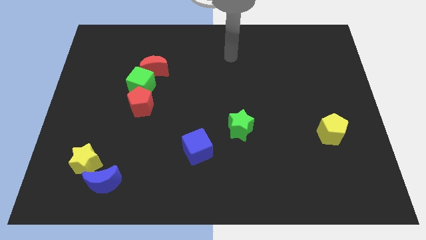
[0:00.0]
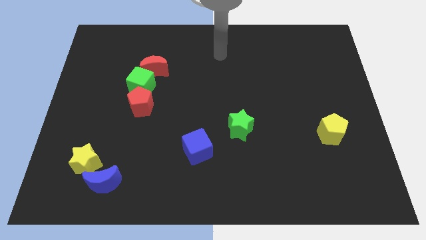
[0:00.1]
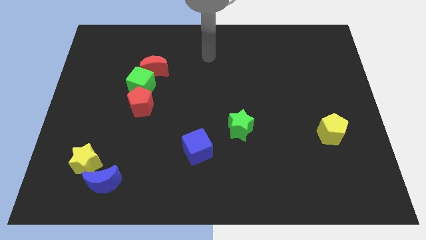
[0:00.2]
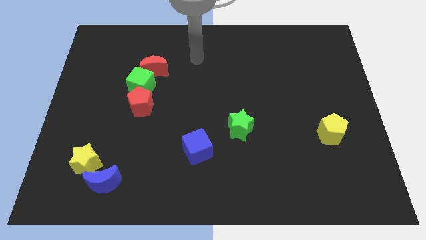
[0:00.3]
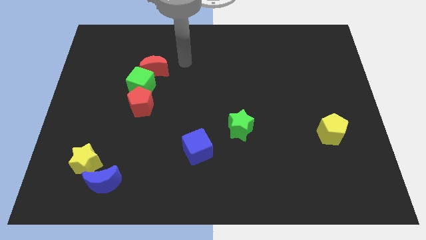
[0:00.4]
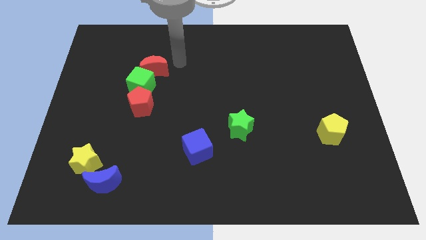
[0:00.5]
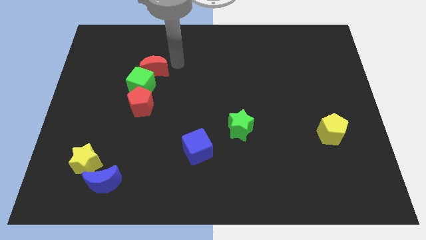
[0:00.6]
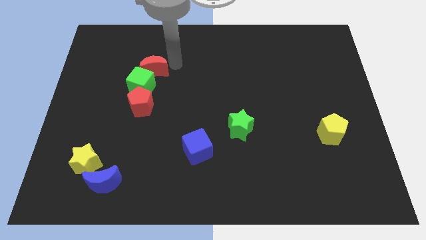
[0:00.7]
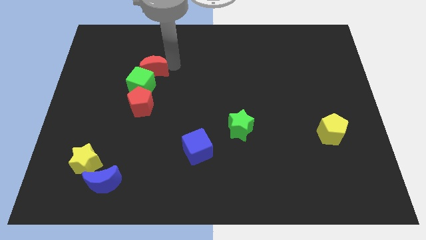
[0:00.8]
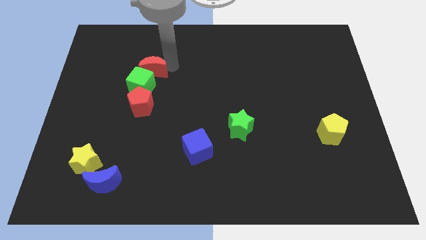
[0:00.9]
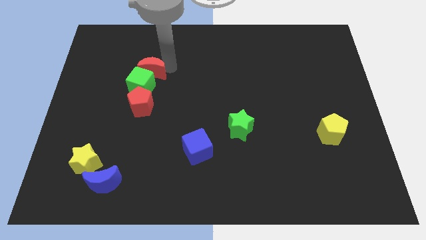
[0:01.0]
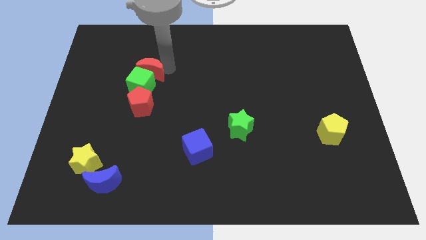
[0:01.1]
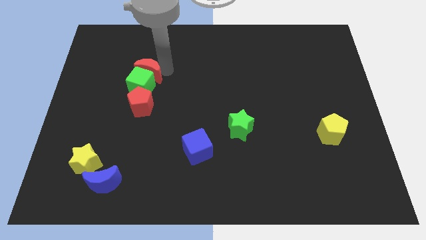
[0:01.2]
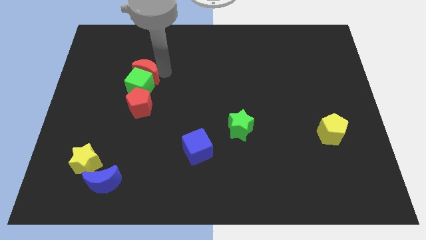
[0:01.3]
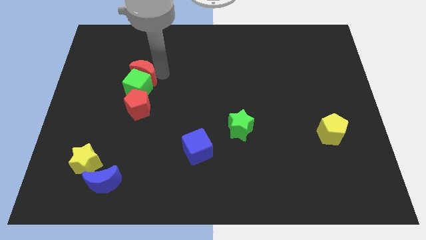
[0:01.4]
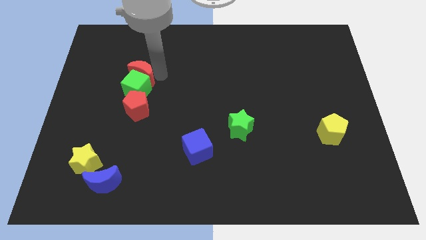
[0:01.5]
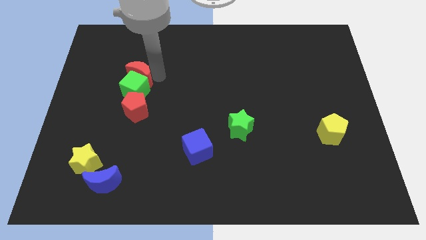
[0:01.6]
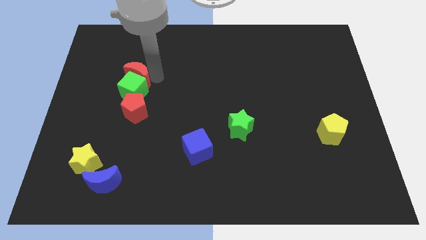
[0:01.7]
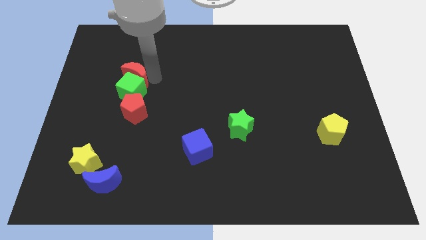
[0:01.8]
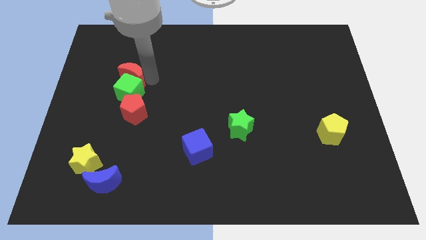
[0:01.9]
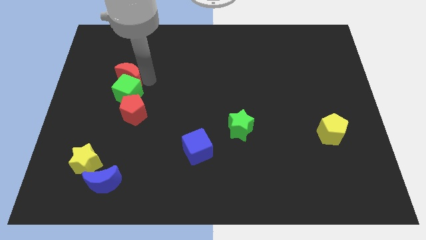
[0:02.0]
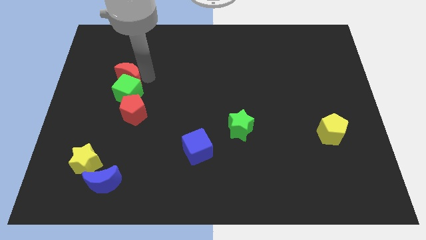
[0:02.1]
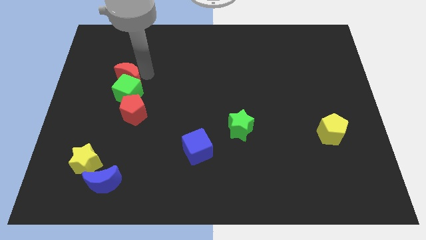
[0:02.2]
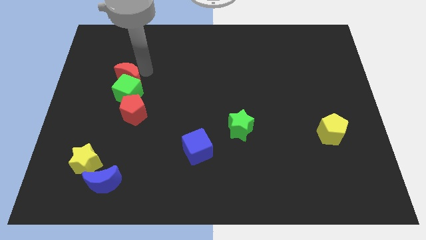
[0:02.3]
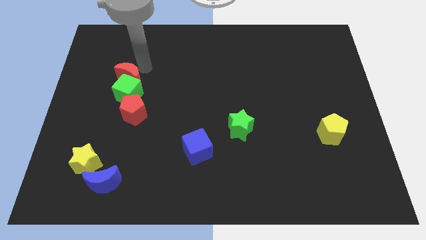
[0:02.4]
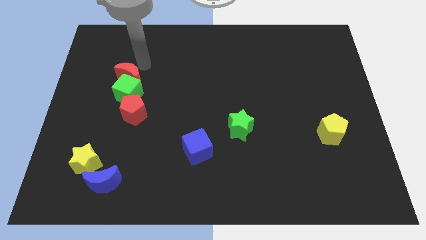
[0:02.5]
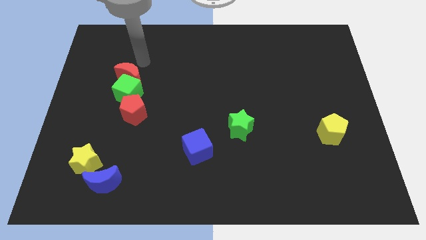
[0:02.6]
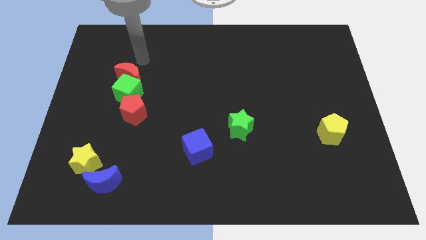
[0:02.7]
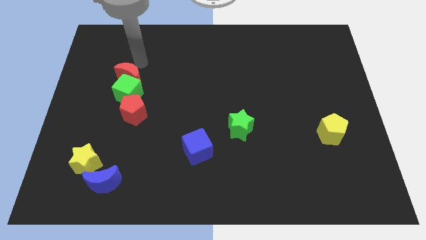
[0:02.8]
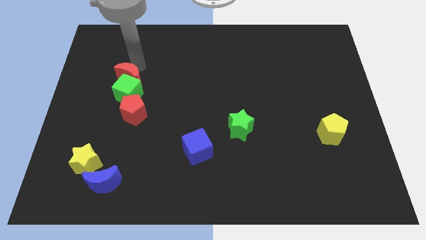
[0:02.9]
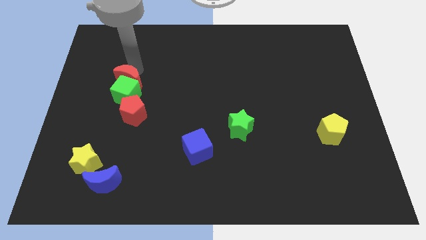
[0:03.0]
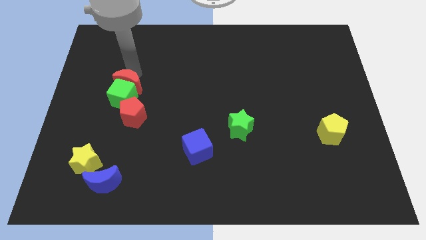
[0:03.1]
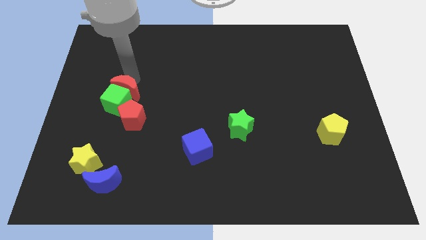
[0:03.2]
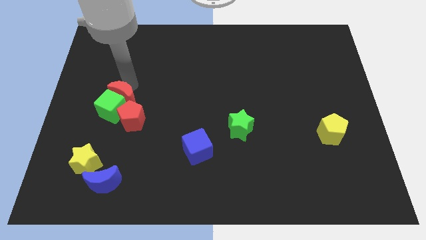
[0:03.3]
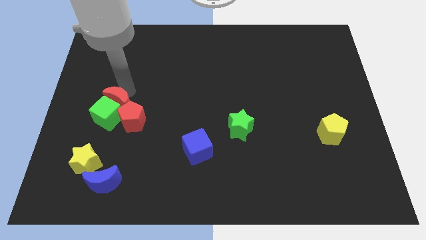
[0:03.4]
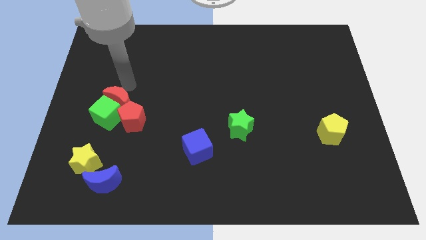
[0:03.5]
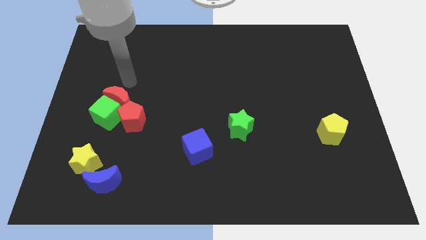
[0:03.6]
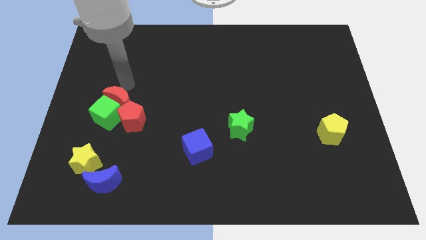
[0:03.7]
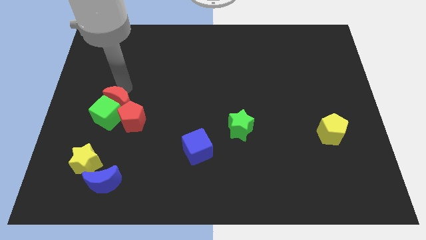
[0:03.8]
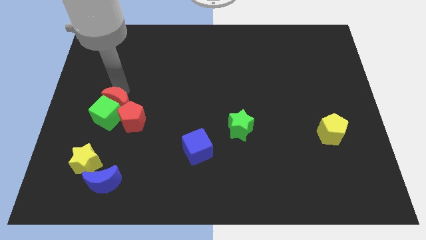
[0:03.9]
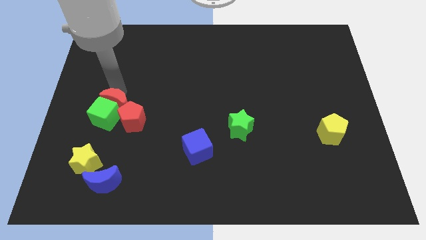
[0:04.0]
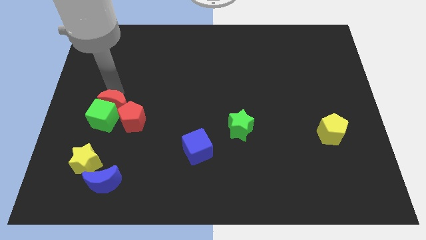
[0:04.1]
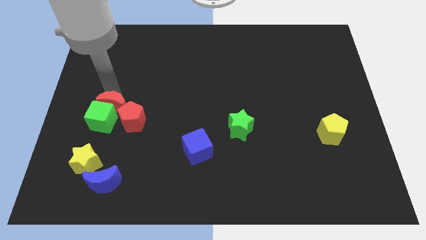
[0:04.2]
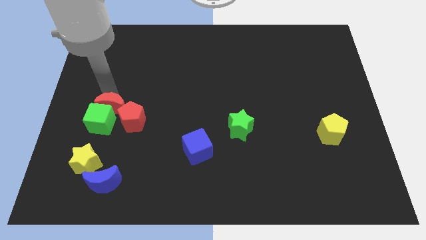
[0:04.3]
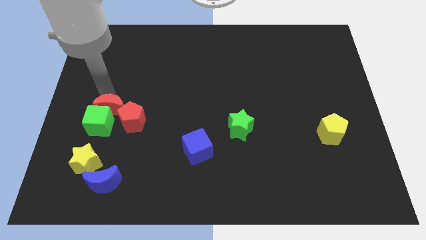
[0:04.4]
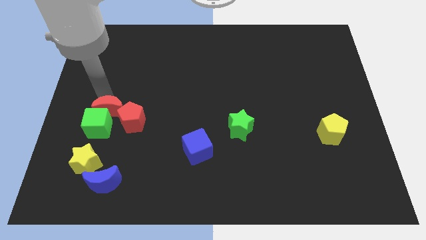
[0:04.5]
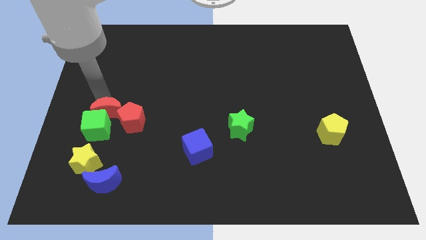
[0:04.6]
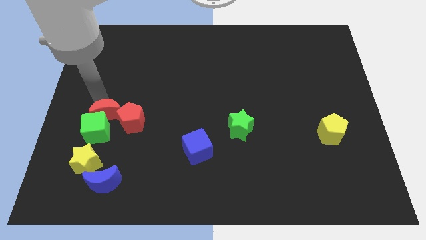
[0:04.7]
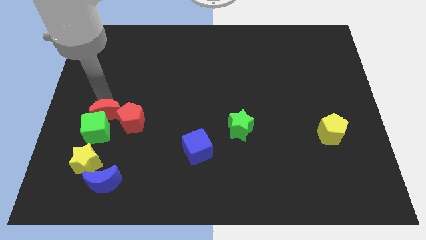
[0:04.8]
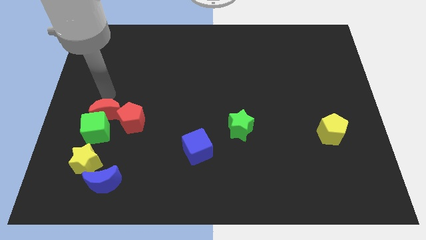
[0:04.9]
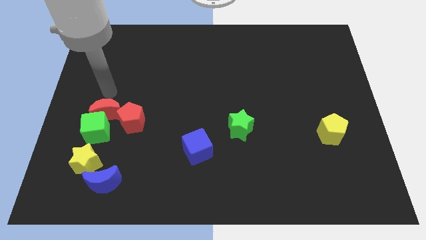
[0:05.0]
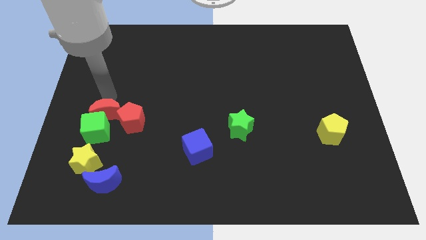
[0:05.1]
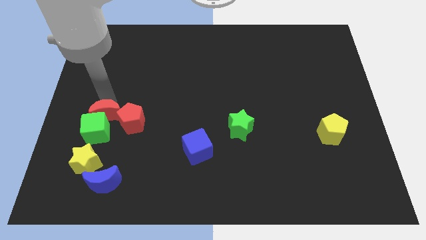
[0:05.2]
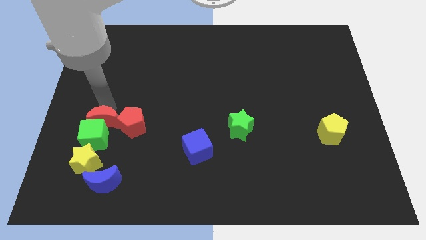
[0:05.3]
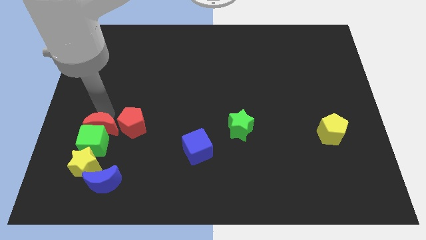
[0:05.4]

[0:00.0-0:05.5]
slide the red moon to the bottom left of the red pentagon

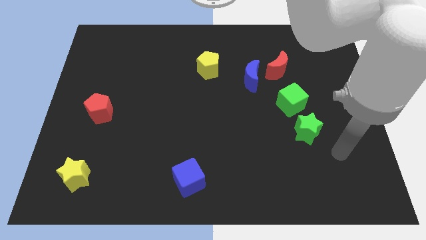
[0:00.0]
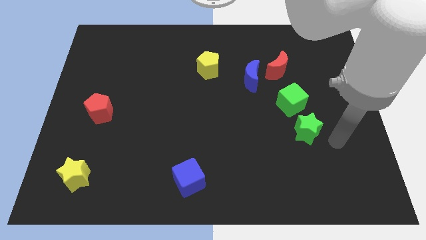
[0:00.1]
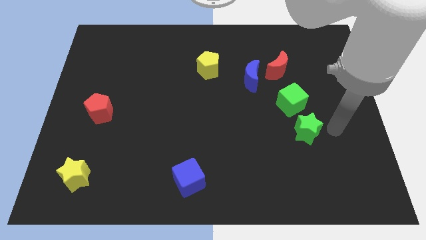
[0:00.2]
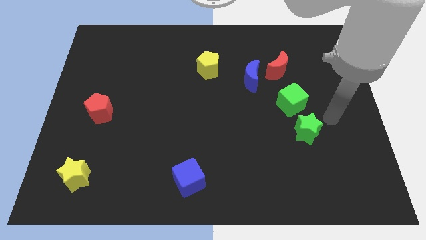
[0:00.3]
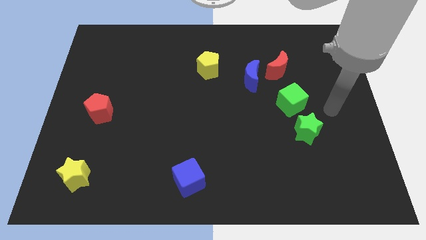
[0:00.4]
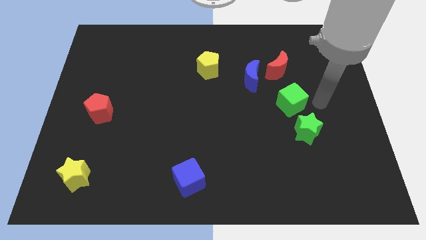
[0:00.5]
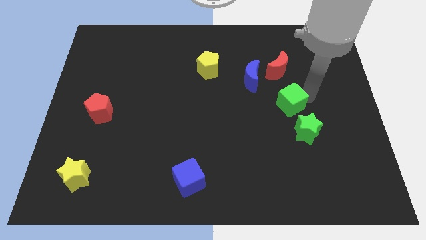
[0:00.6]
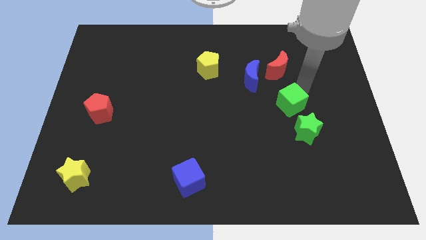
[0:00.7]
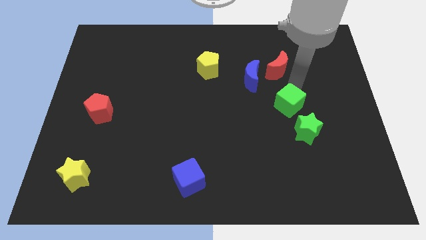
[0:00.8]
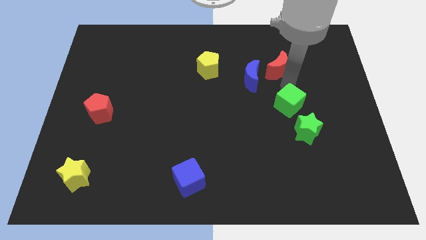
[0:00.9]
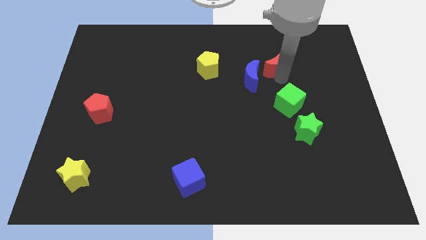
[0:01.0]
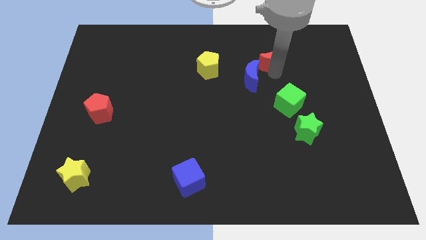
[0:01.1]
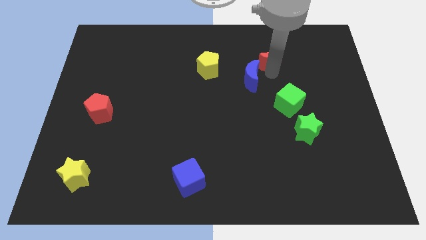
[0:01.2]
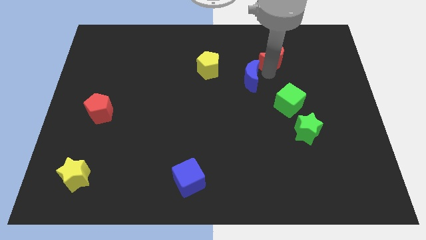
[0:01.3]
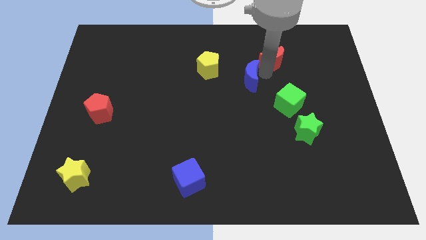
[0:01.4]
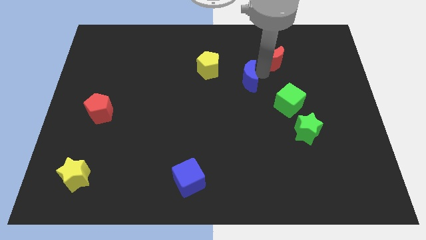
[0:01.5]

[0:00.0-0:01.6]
move the blue moon diagonally down and to the right of the yellow pentagon
